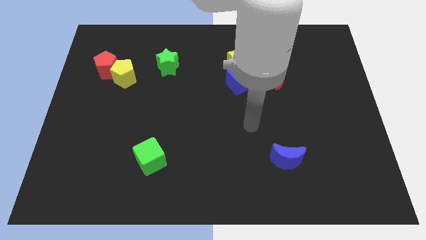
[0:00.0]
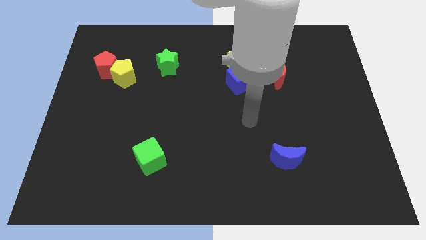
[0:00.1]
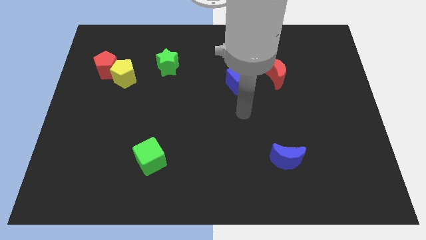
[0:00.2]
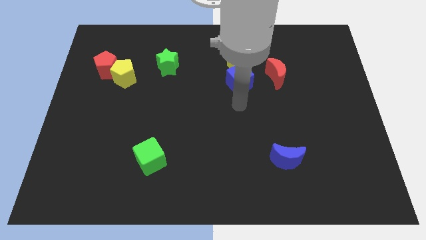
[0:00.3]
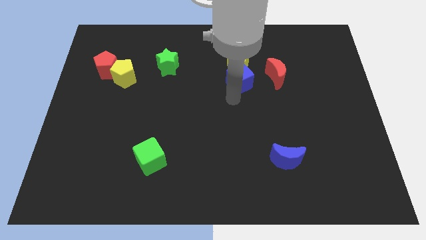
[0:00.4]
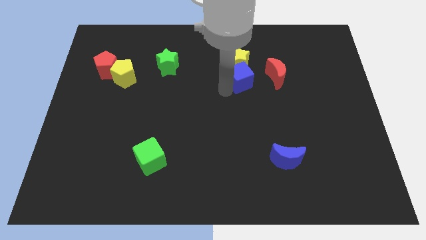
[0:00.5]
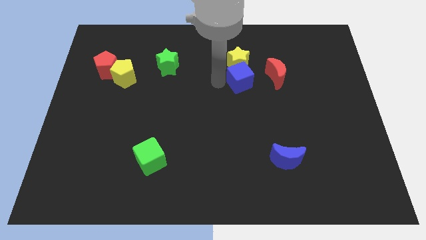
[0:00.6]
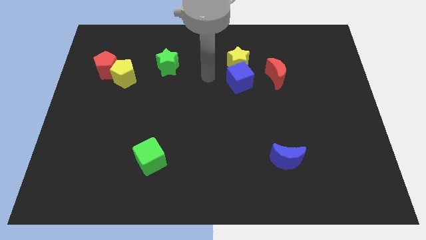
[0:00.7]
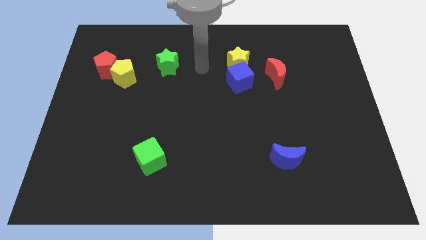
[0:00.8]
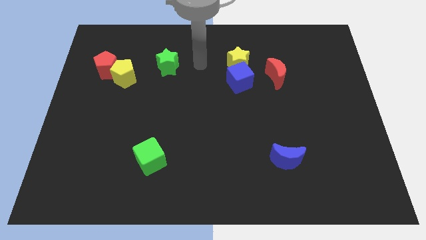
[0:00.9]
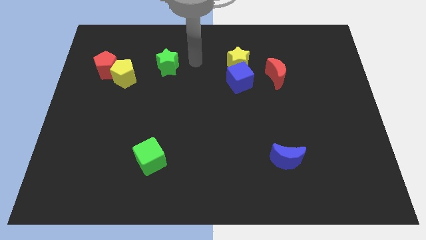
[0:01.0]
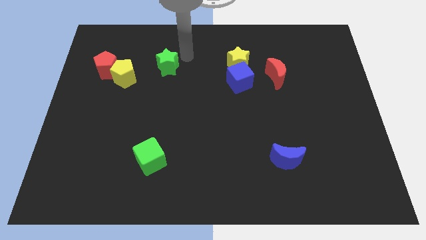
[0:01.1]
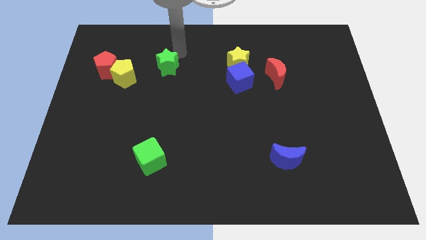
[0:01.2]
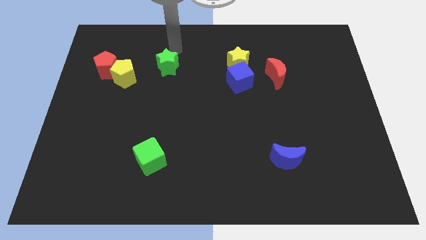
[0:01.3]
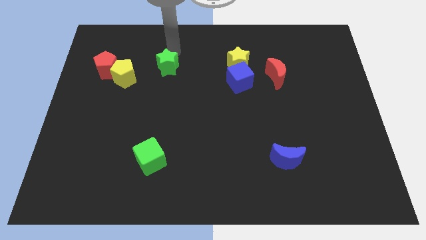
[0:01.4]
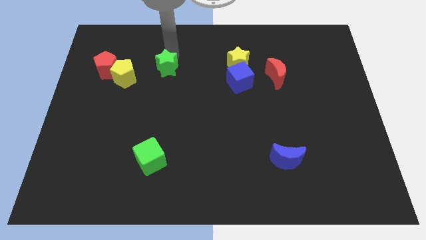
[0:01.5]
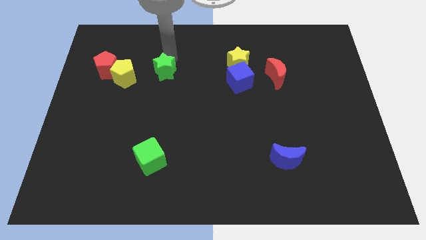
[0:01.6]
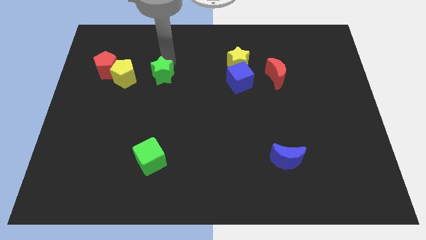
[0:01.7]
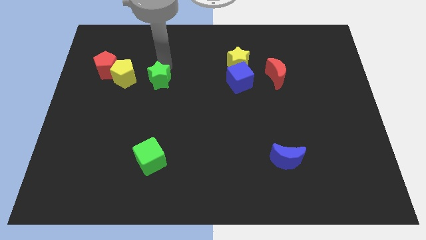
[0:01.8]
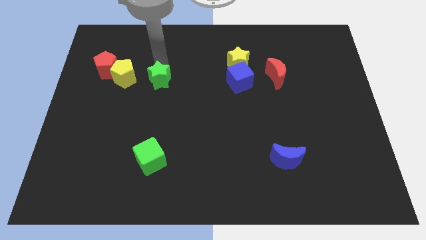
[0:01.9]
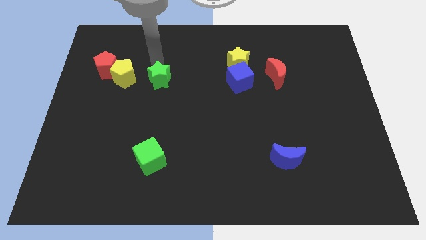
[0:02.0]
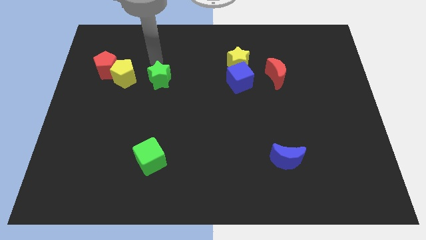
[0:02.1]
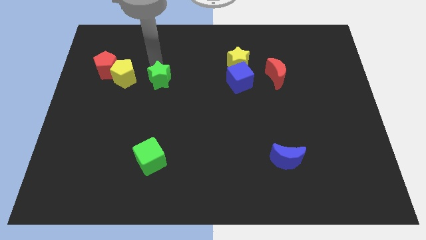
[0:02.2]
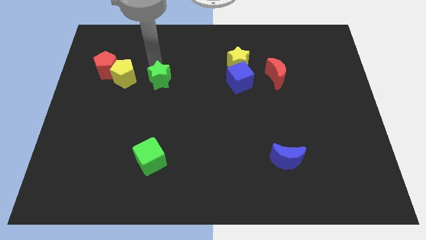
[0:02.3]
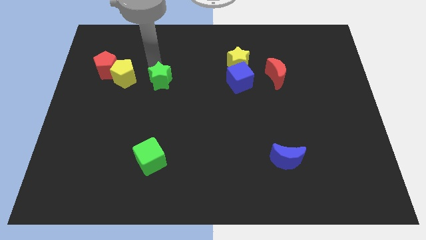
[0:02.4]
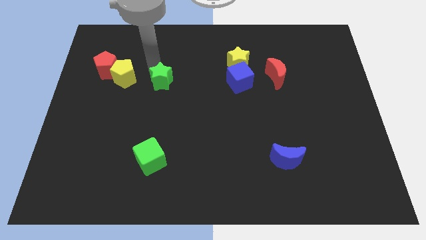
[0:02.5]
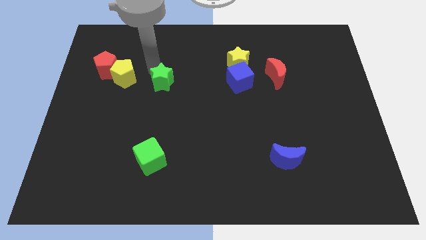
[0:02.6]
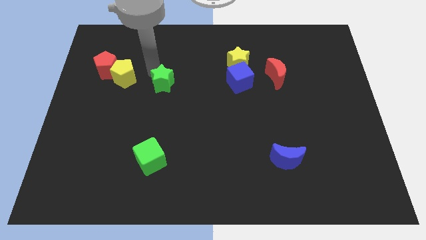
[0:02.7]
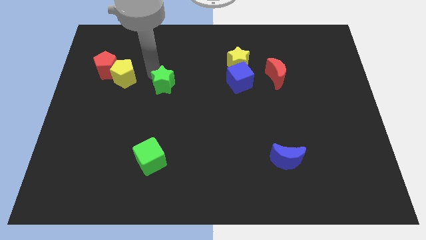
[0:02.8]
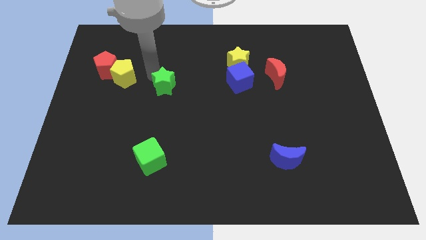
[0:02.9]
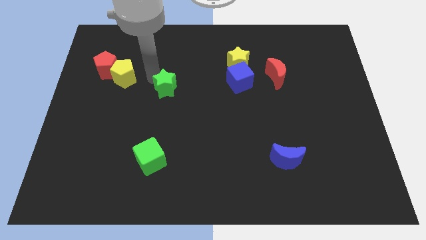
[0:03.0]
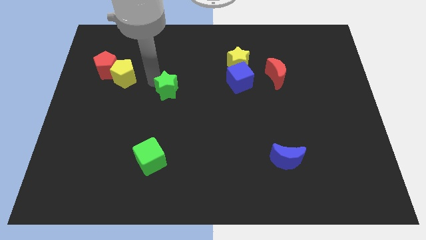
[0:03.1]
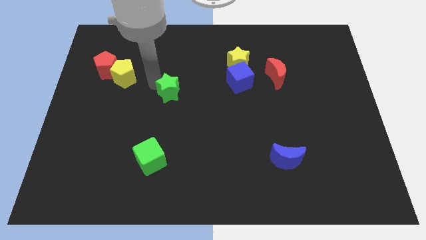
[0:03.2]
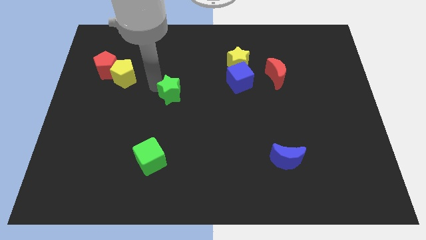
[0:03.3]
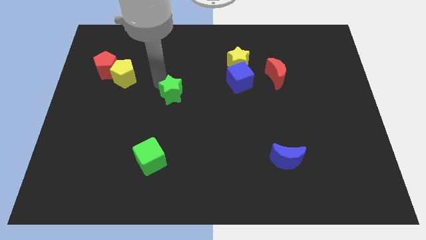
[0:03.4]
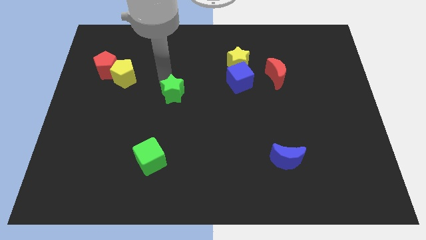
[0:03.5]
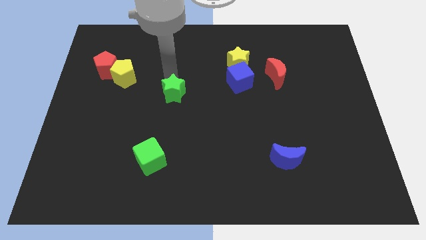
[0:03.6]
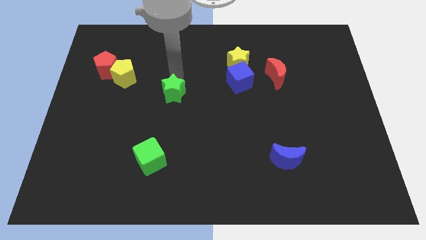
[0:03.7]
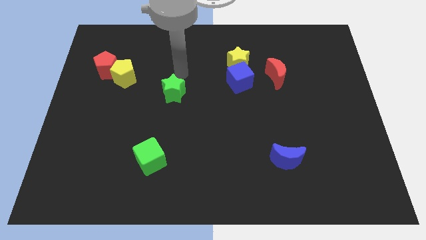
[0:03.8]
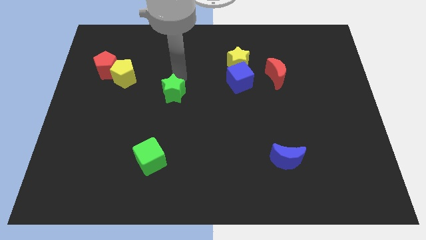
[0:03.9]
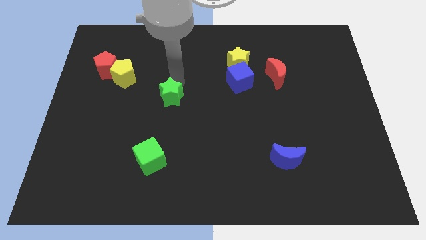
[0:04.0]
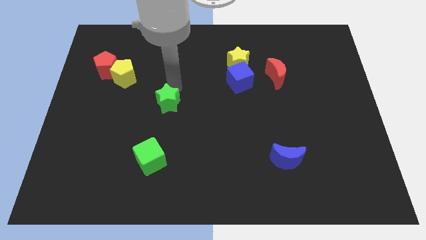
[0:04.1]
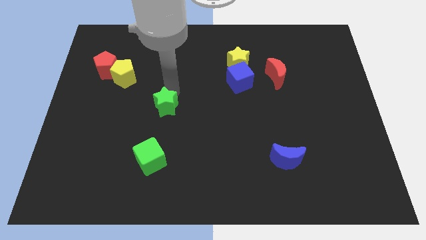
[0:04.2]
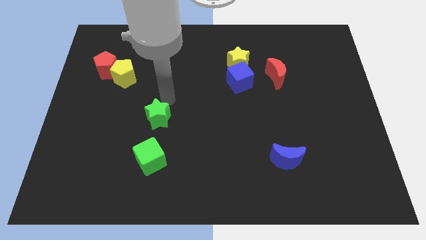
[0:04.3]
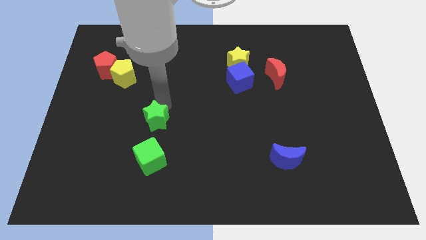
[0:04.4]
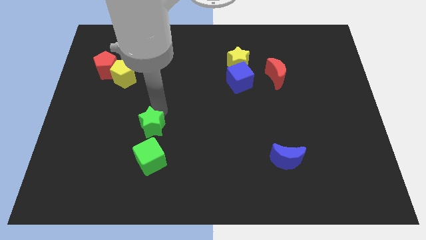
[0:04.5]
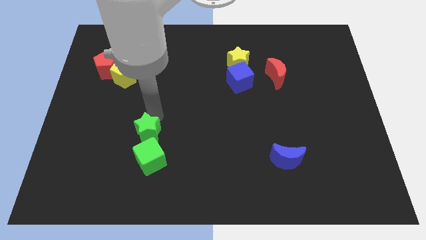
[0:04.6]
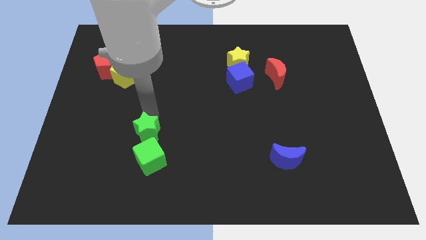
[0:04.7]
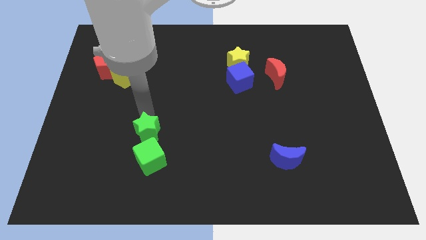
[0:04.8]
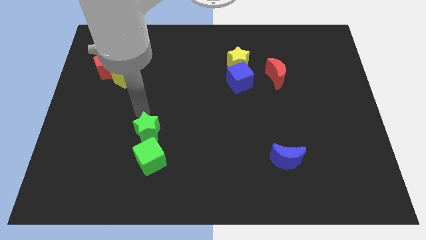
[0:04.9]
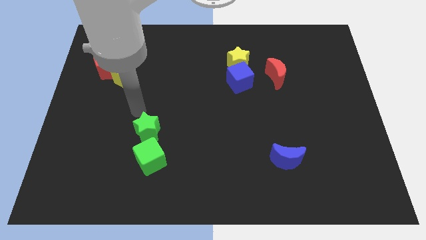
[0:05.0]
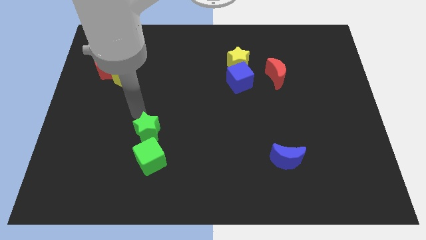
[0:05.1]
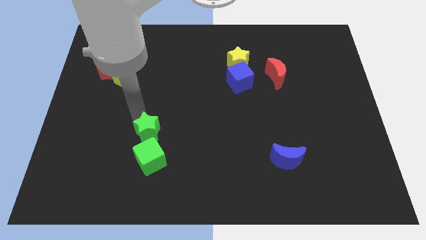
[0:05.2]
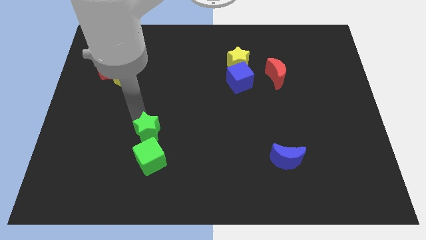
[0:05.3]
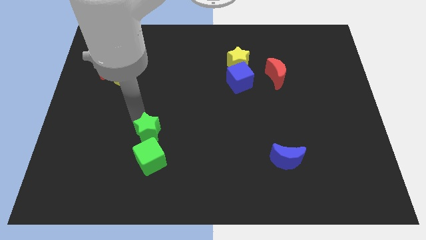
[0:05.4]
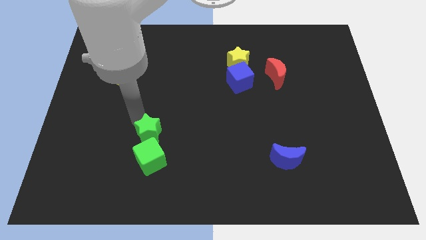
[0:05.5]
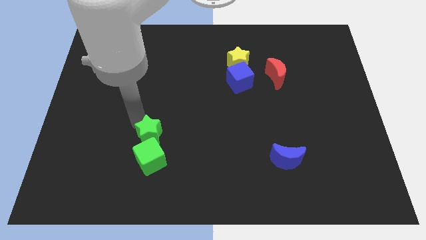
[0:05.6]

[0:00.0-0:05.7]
slide the green star next to the green cube

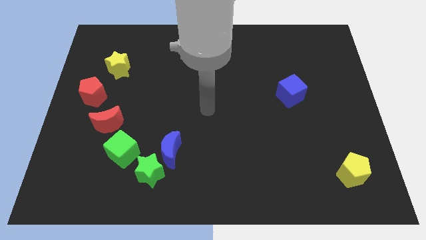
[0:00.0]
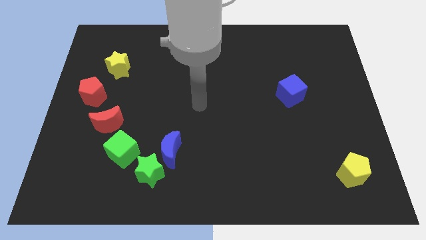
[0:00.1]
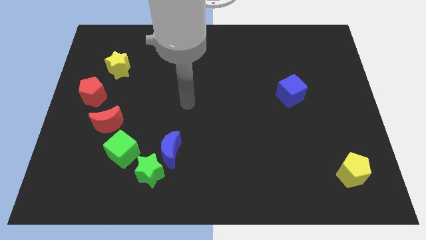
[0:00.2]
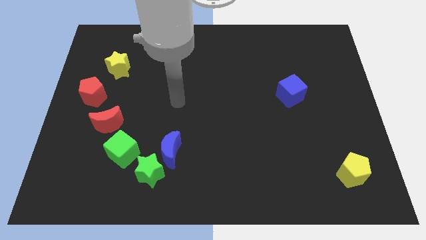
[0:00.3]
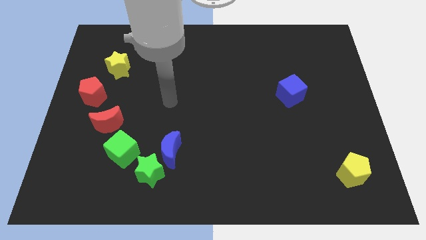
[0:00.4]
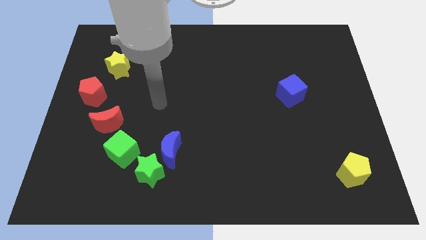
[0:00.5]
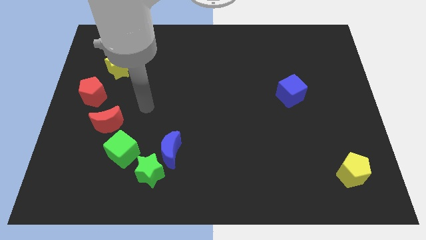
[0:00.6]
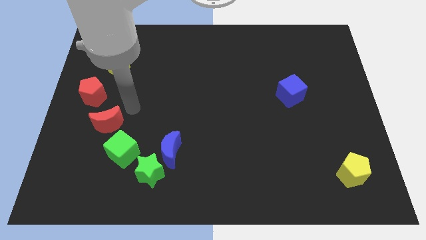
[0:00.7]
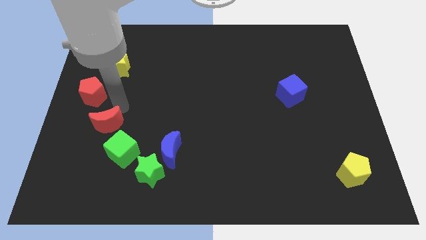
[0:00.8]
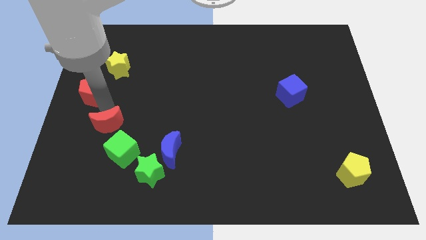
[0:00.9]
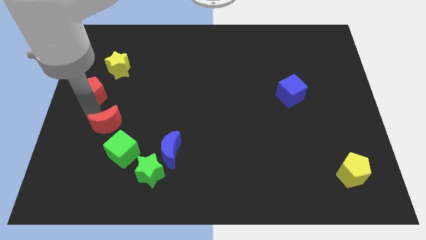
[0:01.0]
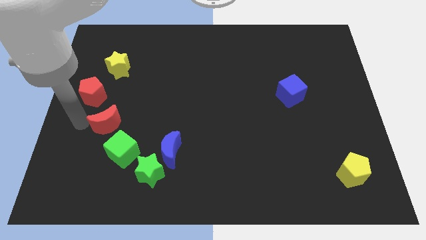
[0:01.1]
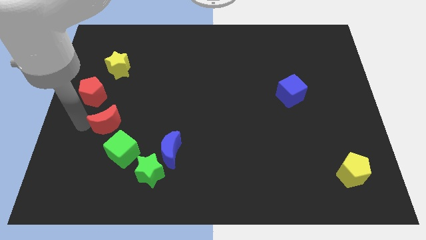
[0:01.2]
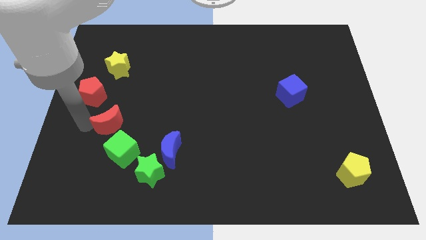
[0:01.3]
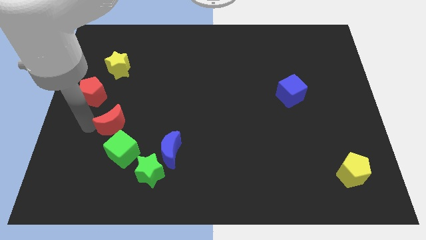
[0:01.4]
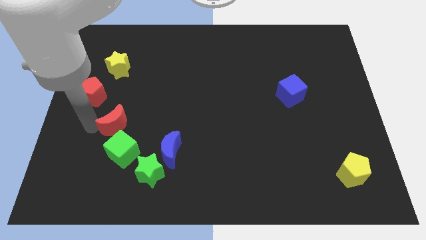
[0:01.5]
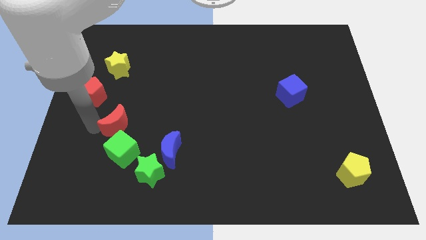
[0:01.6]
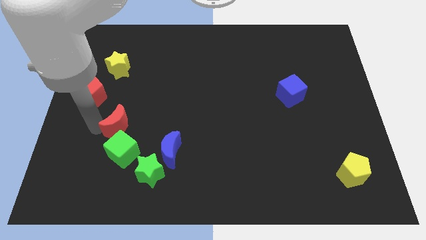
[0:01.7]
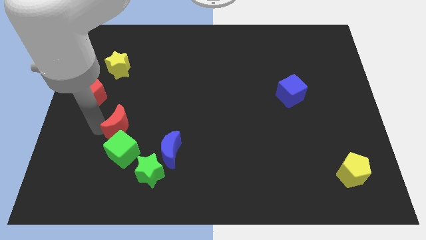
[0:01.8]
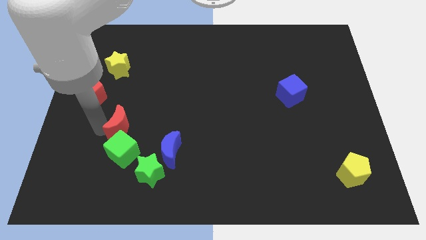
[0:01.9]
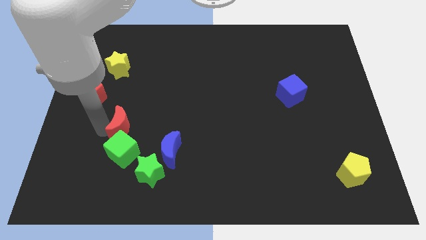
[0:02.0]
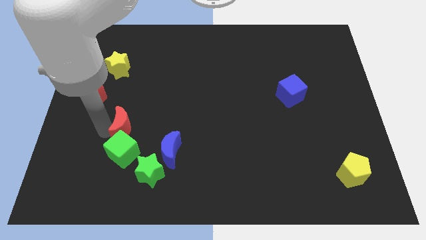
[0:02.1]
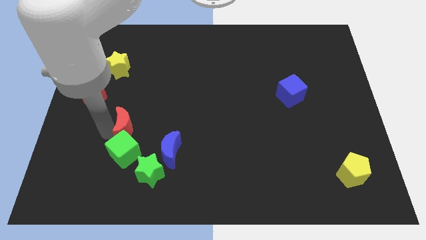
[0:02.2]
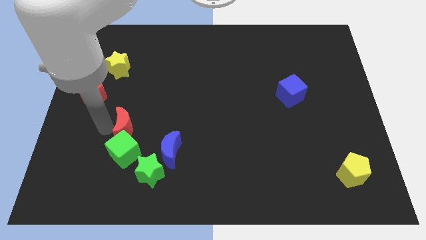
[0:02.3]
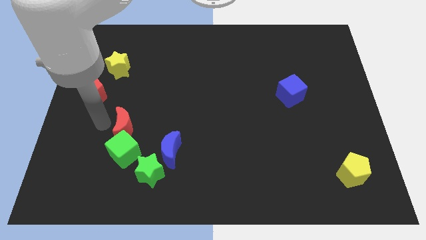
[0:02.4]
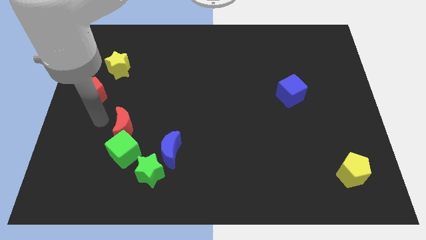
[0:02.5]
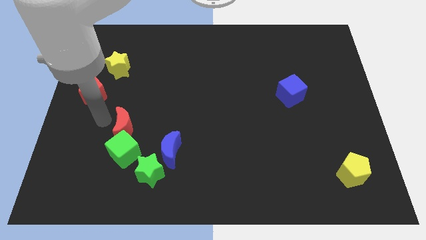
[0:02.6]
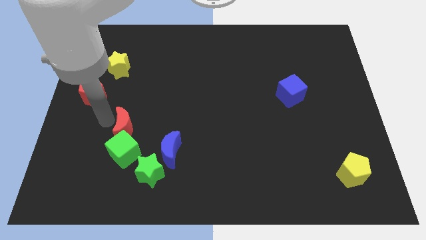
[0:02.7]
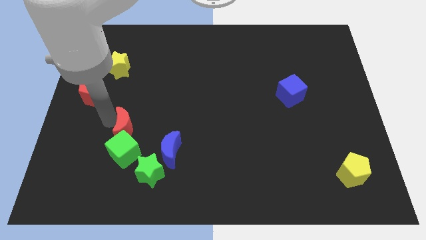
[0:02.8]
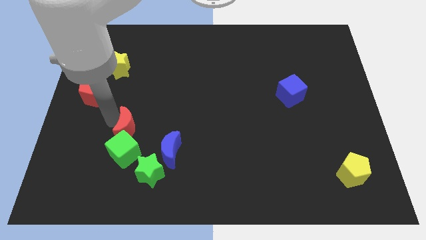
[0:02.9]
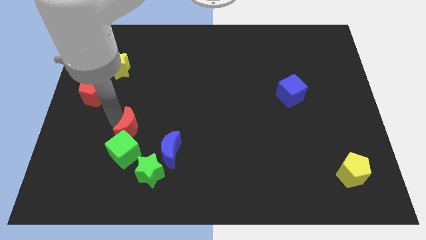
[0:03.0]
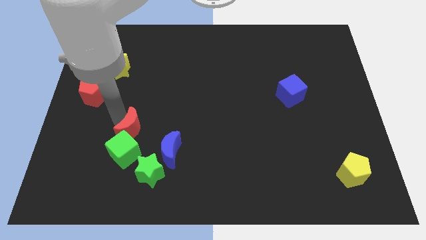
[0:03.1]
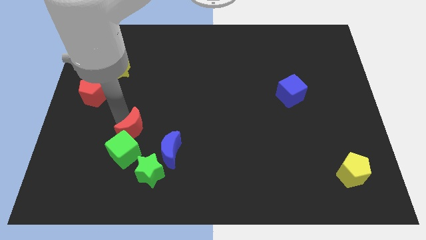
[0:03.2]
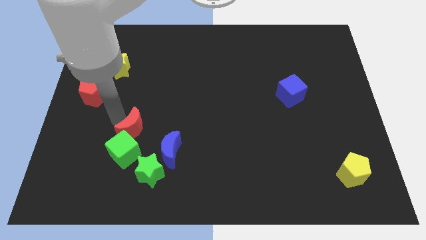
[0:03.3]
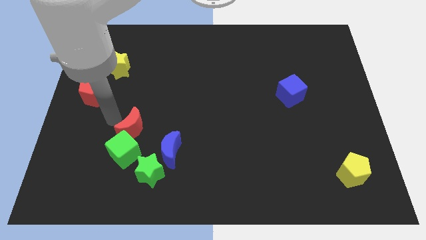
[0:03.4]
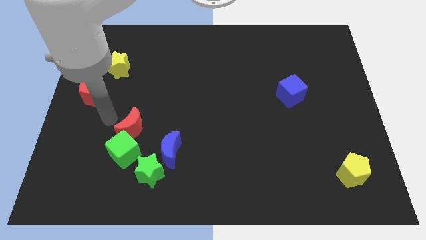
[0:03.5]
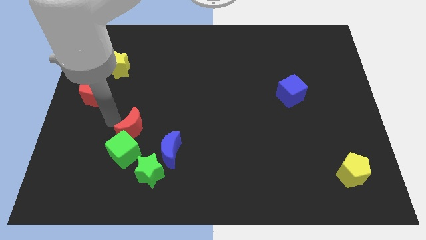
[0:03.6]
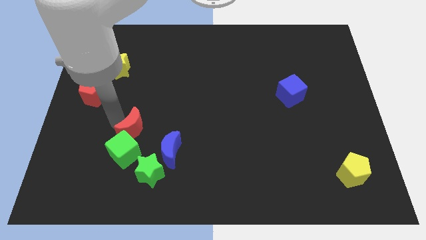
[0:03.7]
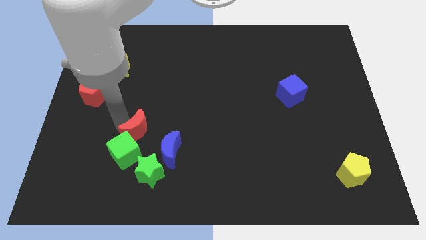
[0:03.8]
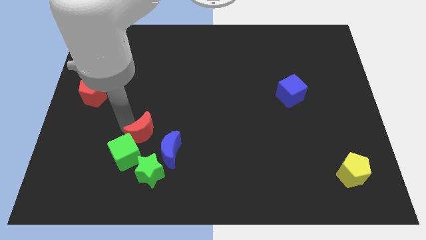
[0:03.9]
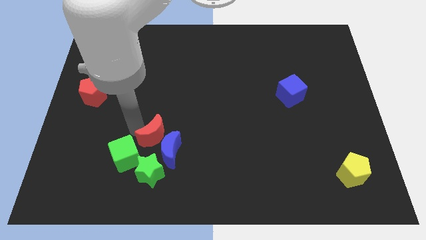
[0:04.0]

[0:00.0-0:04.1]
push the red moon towards the blue moon
